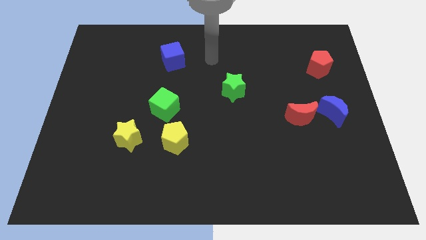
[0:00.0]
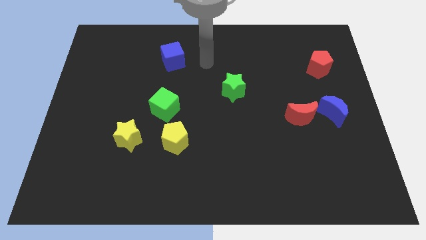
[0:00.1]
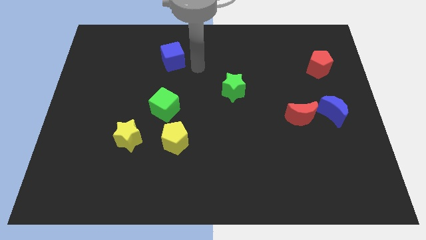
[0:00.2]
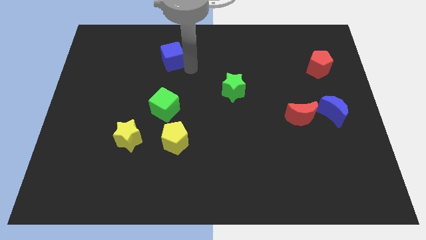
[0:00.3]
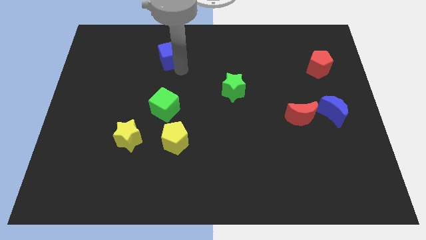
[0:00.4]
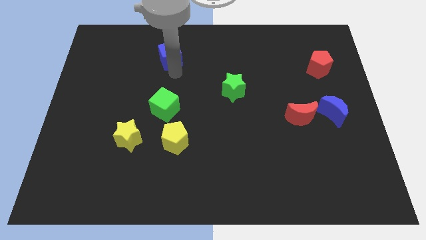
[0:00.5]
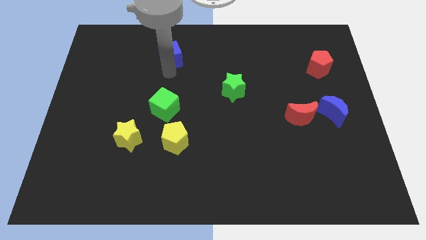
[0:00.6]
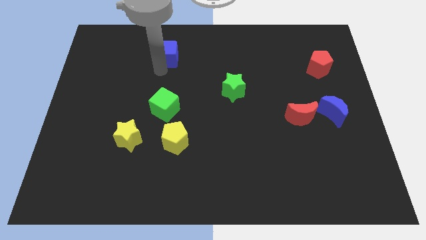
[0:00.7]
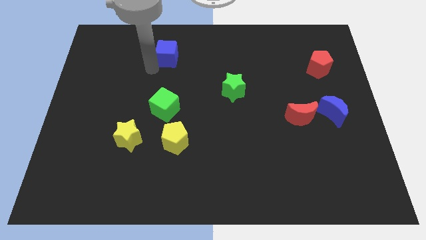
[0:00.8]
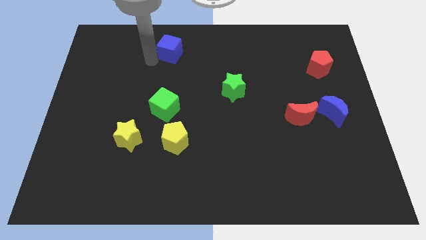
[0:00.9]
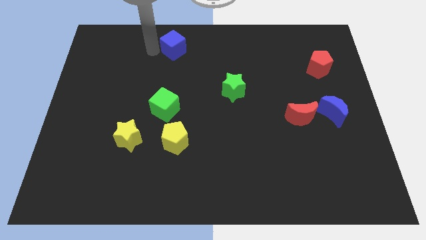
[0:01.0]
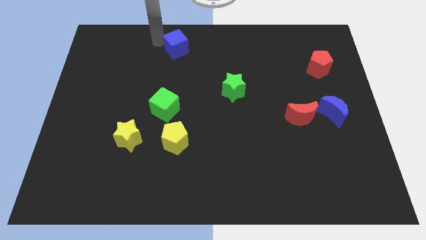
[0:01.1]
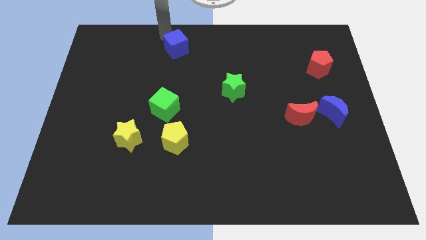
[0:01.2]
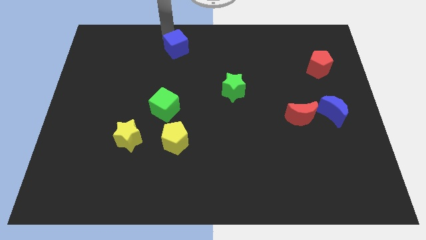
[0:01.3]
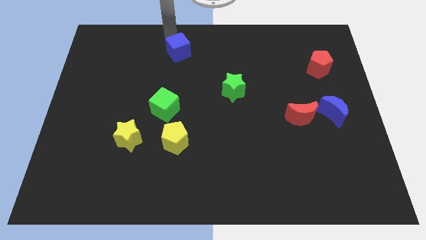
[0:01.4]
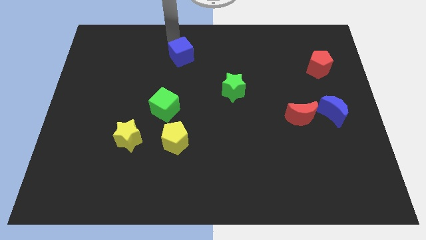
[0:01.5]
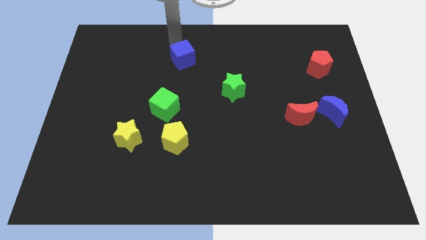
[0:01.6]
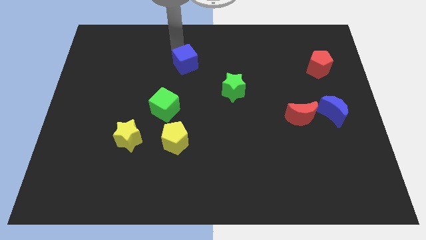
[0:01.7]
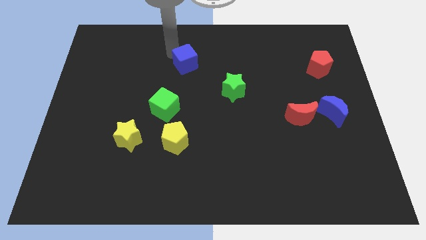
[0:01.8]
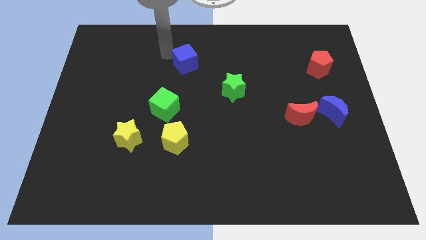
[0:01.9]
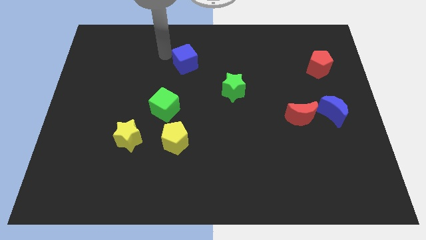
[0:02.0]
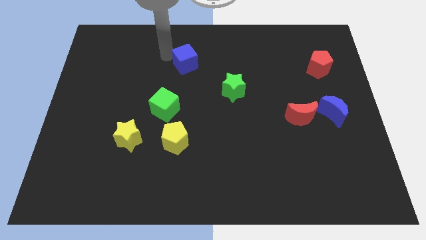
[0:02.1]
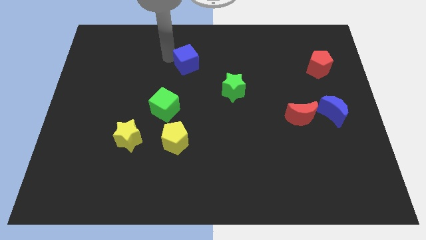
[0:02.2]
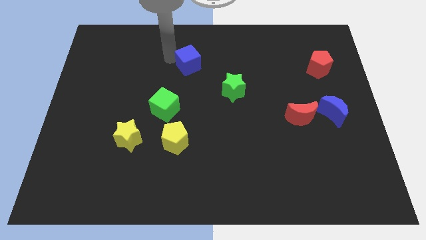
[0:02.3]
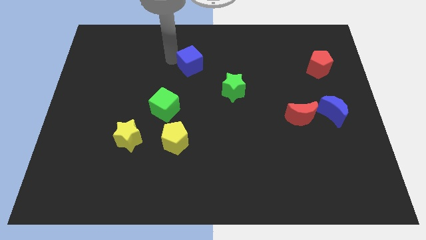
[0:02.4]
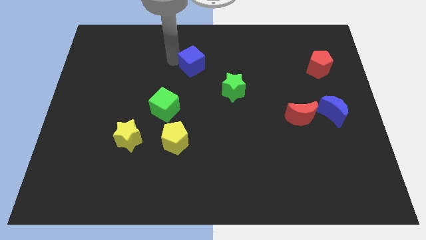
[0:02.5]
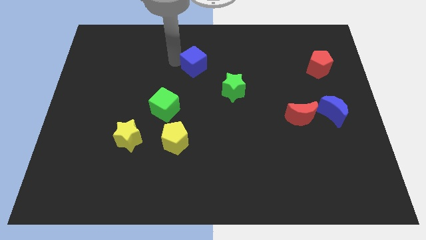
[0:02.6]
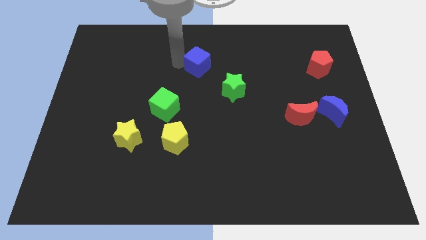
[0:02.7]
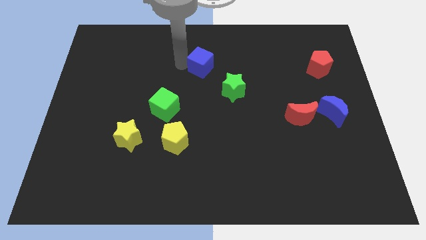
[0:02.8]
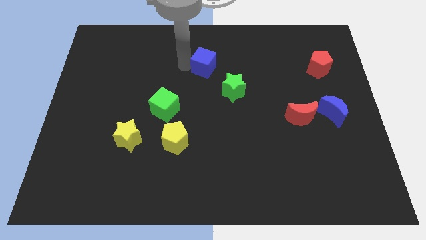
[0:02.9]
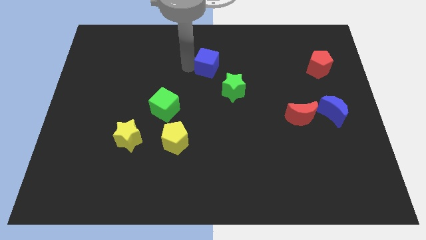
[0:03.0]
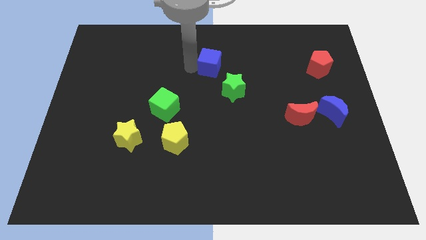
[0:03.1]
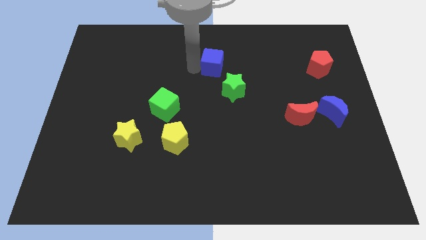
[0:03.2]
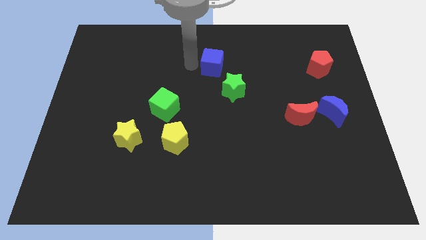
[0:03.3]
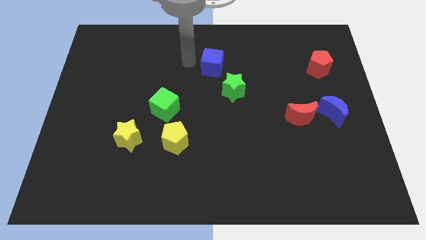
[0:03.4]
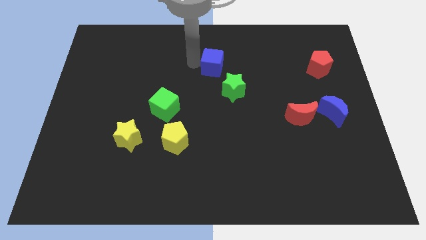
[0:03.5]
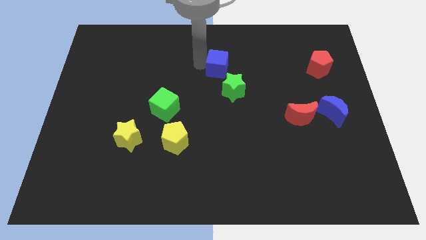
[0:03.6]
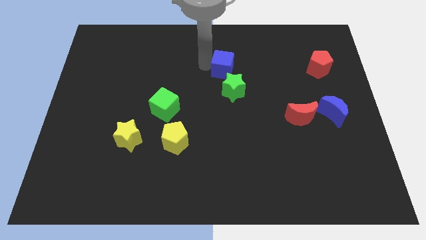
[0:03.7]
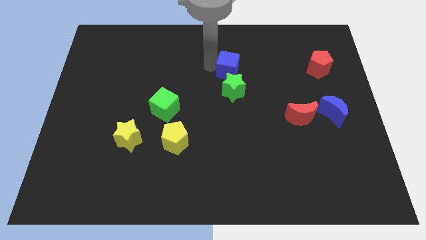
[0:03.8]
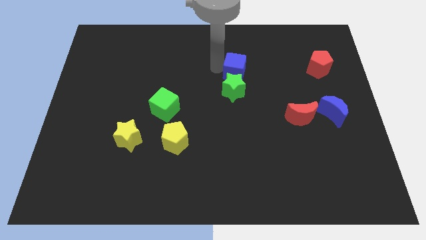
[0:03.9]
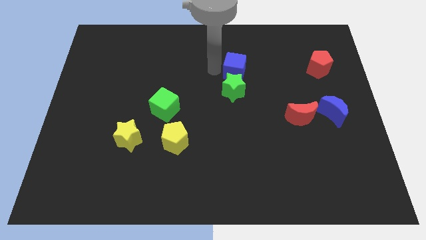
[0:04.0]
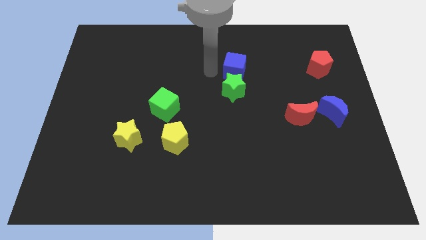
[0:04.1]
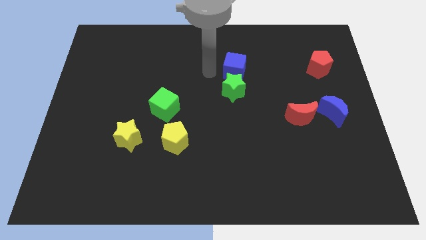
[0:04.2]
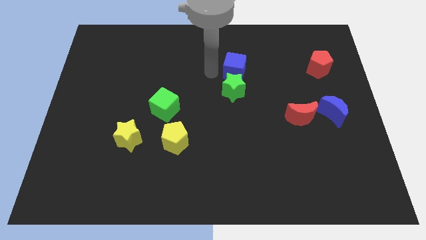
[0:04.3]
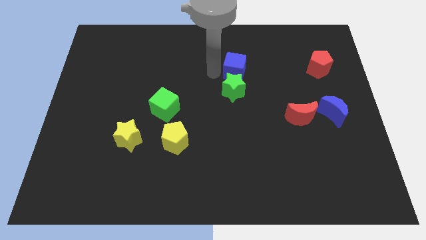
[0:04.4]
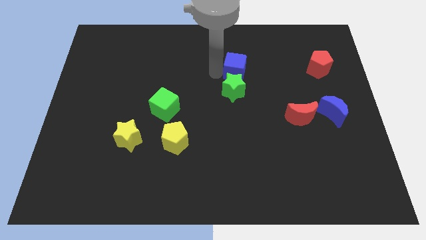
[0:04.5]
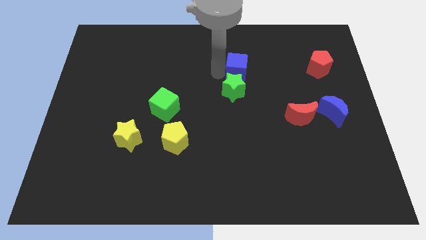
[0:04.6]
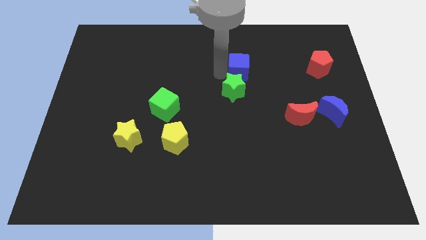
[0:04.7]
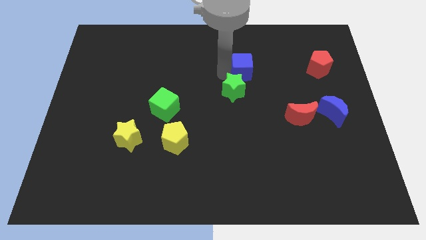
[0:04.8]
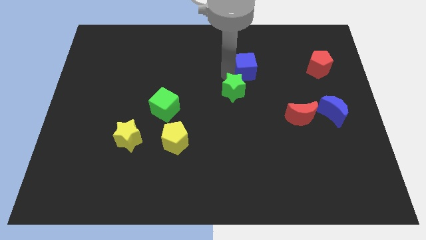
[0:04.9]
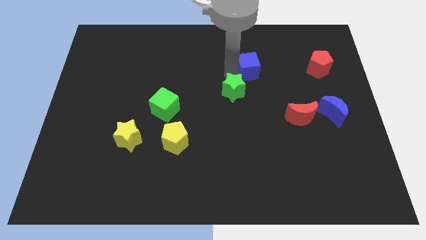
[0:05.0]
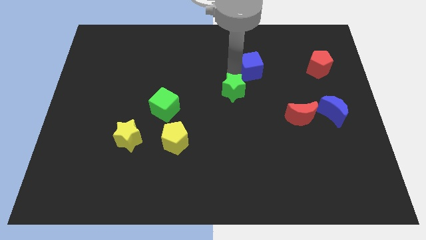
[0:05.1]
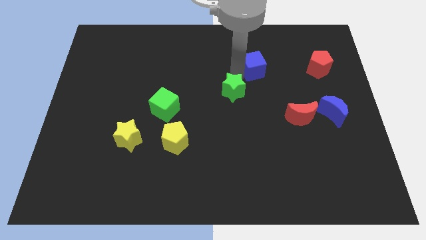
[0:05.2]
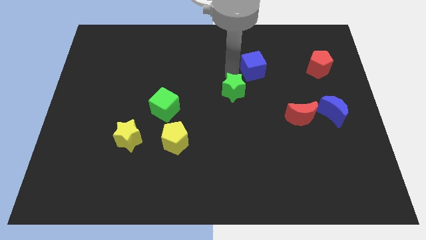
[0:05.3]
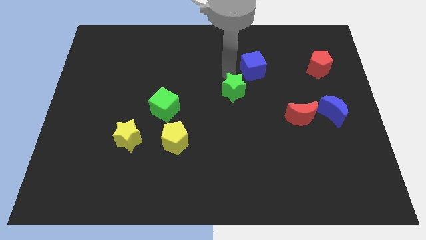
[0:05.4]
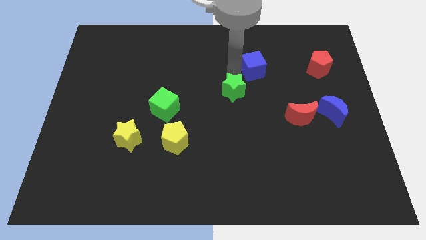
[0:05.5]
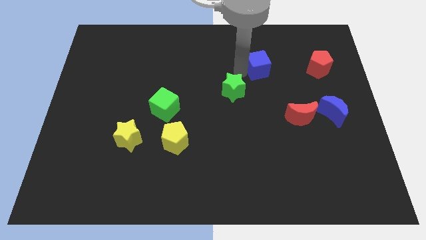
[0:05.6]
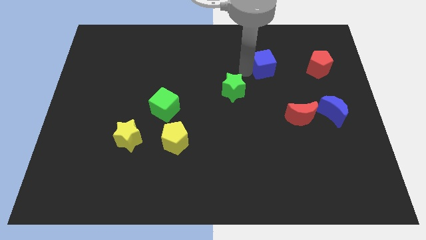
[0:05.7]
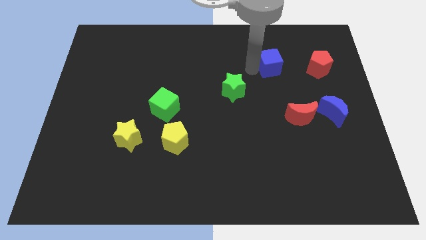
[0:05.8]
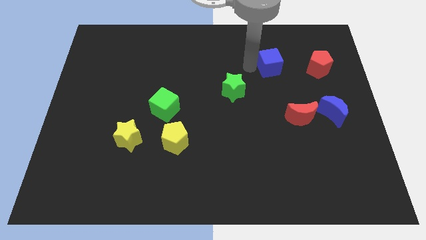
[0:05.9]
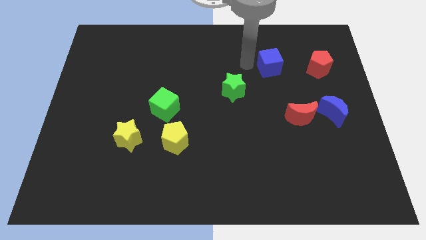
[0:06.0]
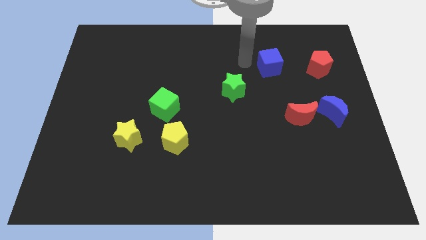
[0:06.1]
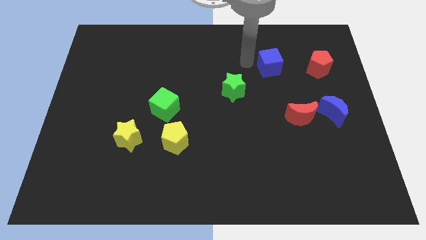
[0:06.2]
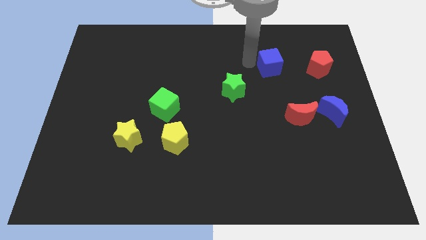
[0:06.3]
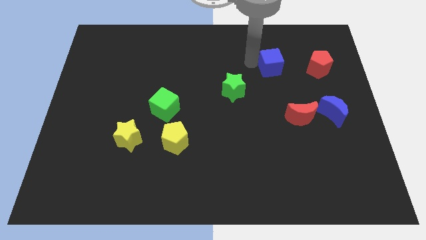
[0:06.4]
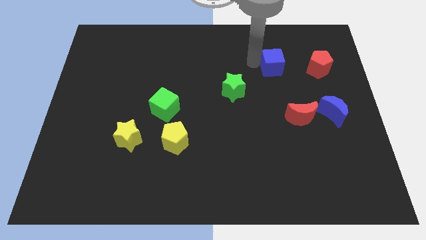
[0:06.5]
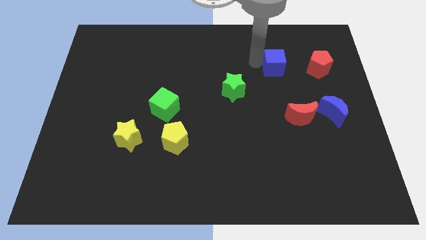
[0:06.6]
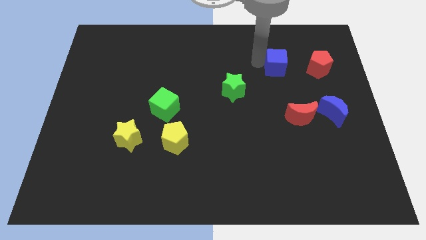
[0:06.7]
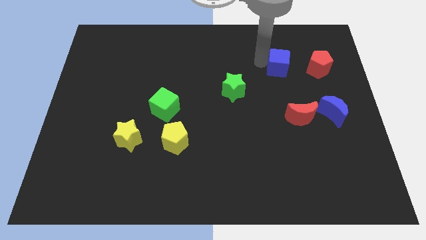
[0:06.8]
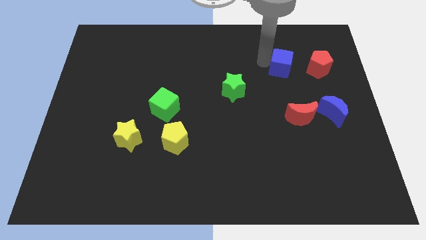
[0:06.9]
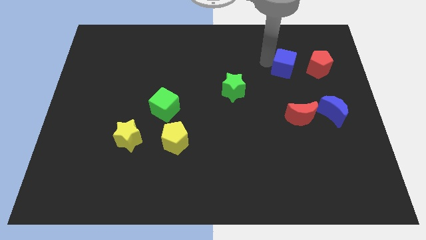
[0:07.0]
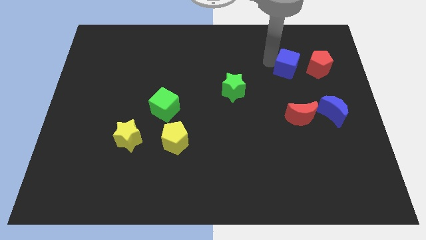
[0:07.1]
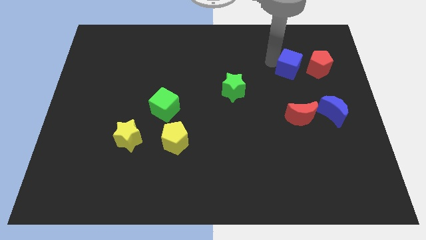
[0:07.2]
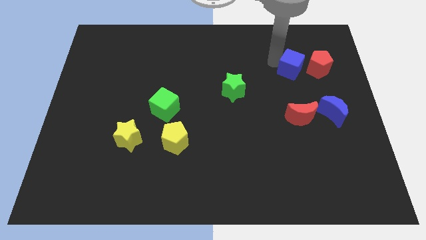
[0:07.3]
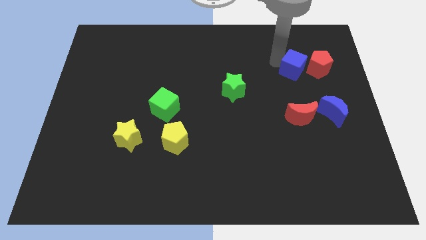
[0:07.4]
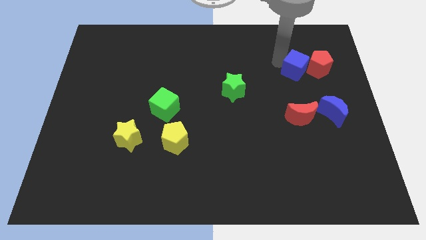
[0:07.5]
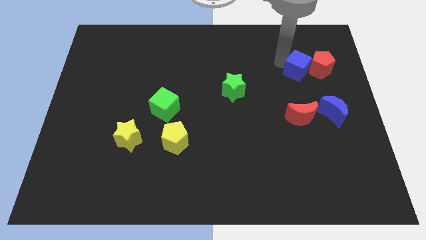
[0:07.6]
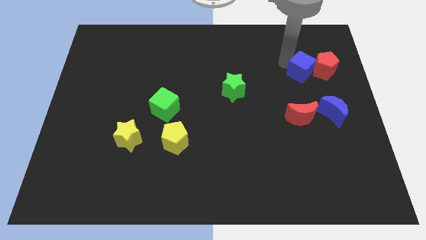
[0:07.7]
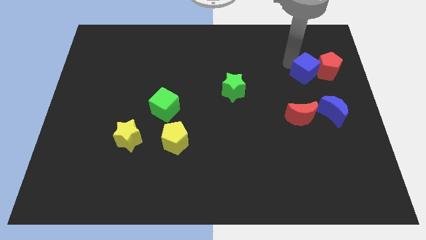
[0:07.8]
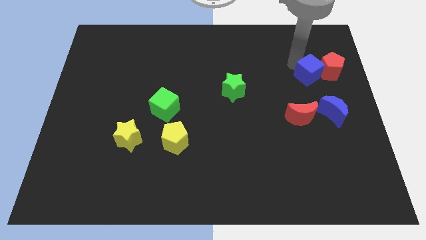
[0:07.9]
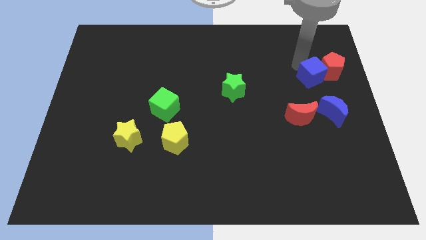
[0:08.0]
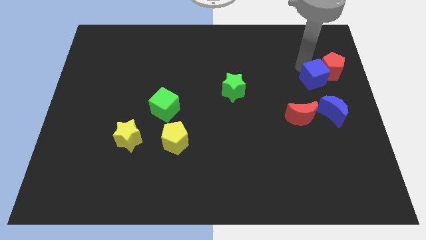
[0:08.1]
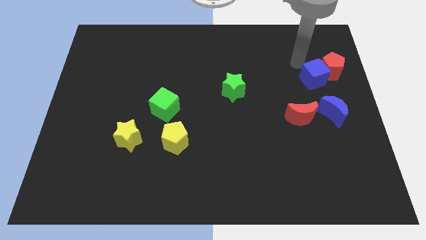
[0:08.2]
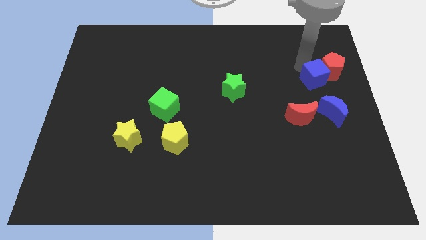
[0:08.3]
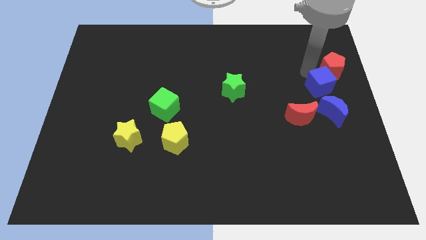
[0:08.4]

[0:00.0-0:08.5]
put the blue cube to the bottom of the red pentagon
